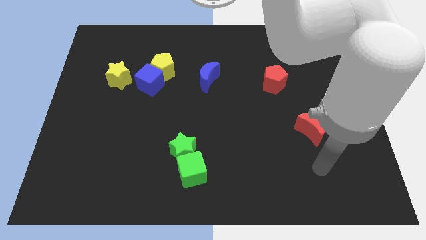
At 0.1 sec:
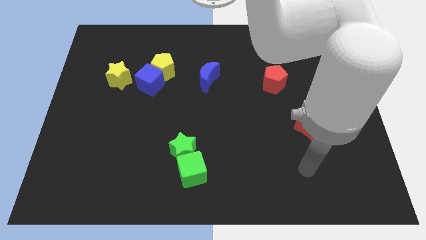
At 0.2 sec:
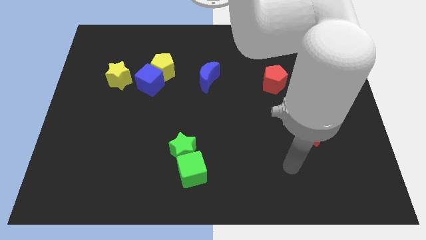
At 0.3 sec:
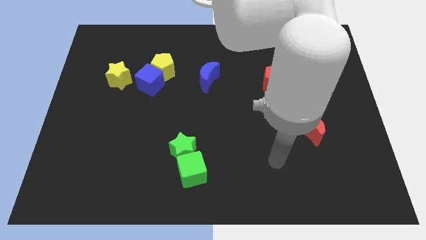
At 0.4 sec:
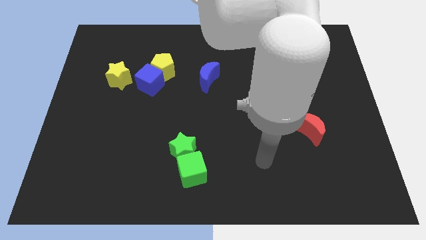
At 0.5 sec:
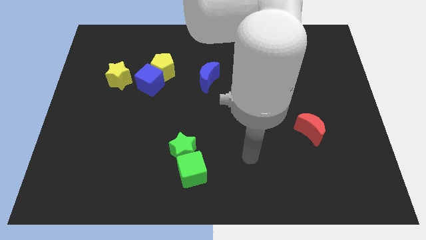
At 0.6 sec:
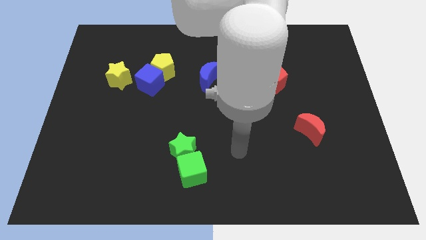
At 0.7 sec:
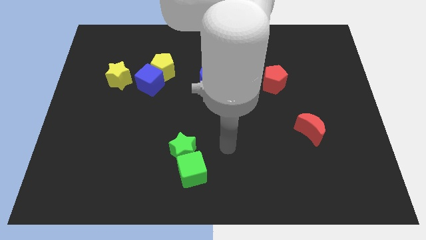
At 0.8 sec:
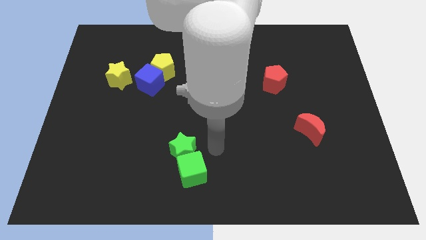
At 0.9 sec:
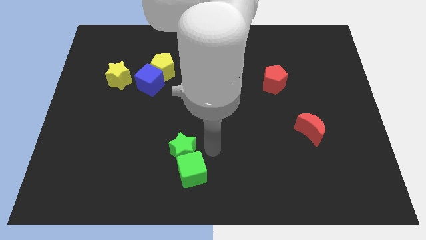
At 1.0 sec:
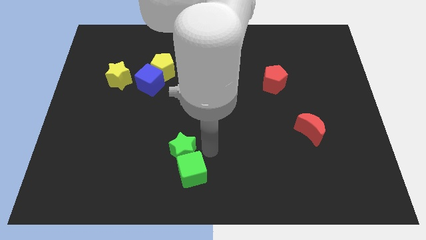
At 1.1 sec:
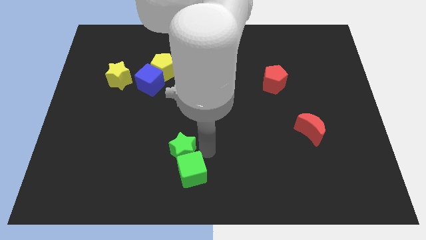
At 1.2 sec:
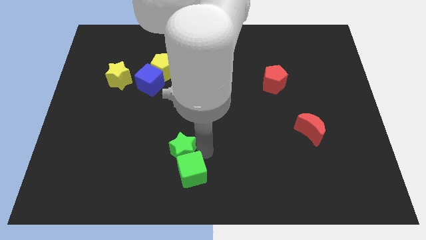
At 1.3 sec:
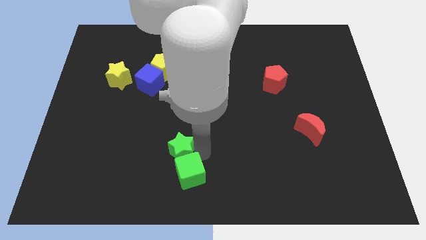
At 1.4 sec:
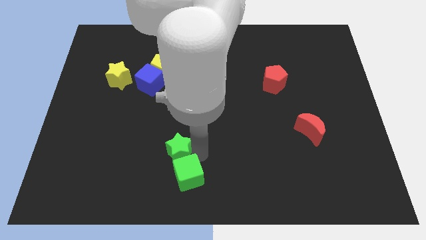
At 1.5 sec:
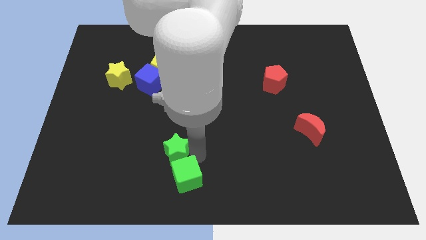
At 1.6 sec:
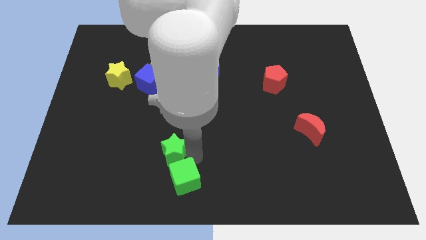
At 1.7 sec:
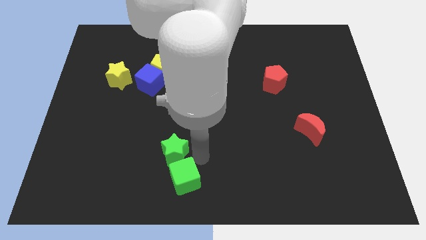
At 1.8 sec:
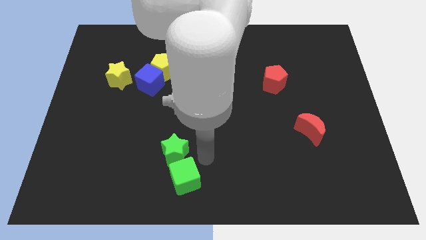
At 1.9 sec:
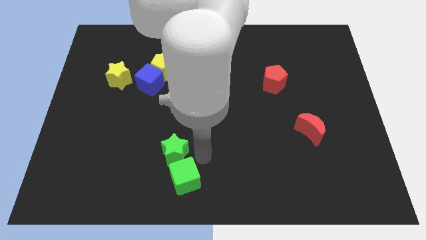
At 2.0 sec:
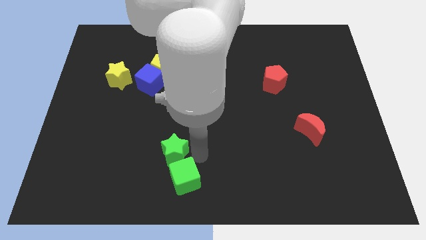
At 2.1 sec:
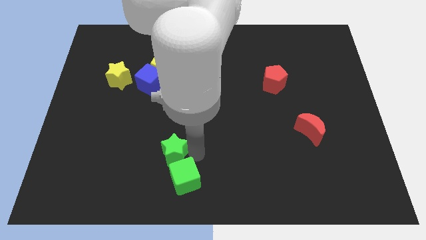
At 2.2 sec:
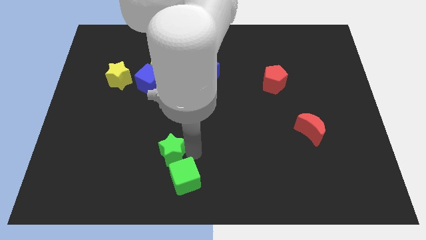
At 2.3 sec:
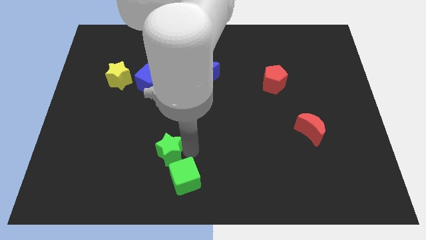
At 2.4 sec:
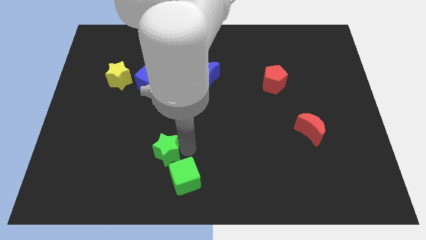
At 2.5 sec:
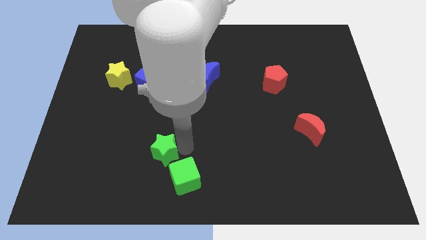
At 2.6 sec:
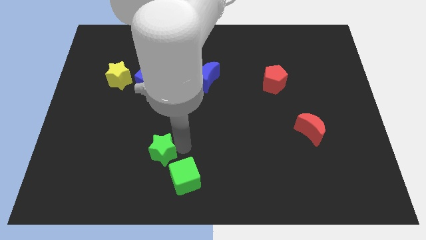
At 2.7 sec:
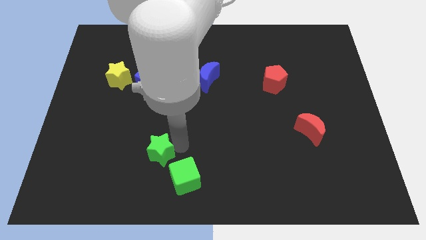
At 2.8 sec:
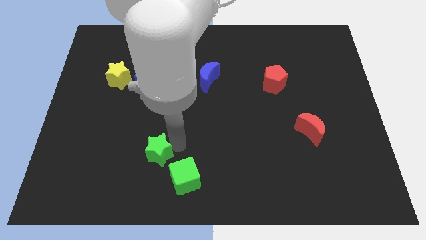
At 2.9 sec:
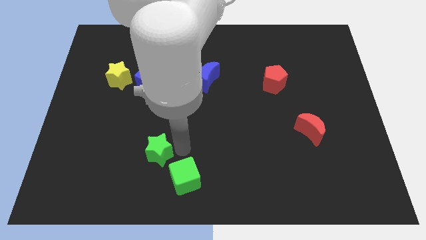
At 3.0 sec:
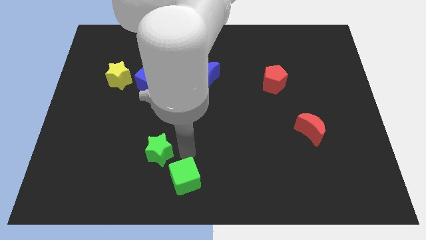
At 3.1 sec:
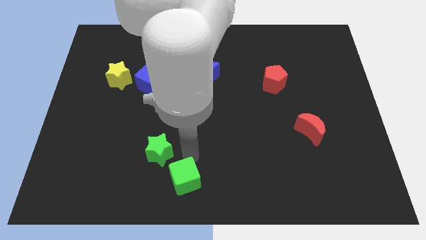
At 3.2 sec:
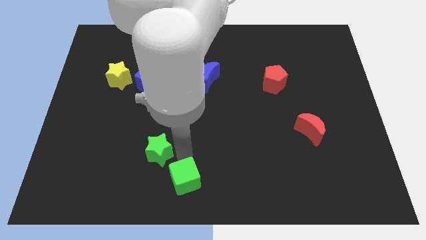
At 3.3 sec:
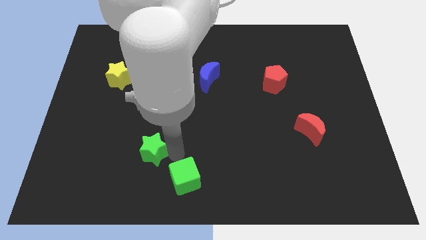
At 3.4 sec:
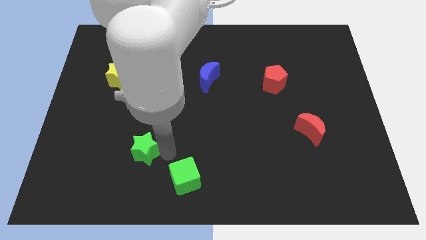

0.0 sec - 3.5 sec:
move the green star a bit to the left

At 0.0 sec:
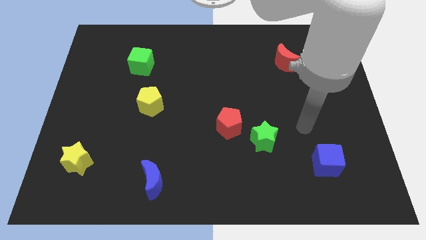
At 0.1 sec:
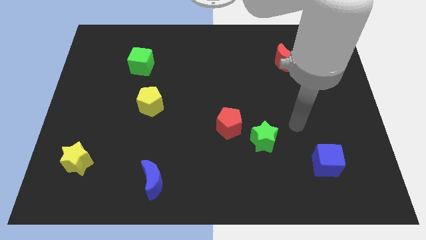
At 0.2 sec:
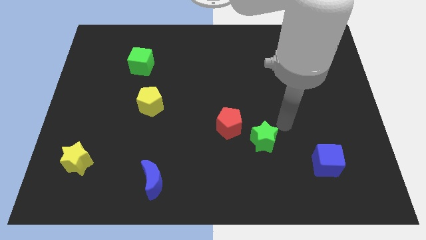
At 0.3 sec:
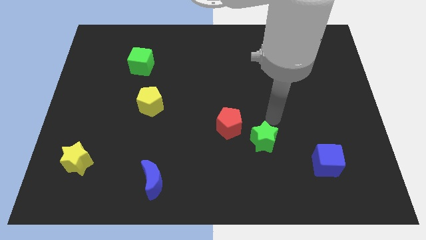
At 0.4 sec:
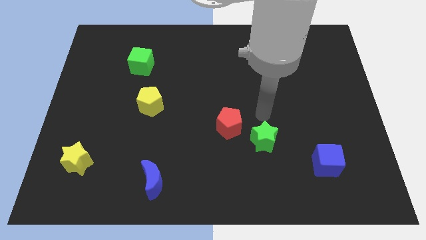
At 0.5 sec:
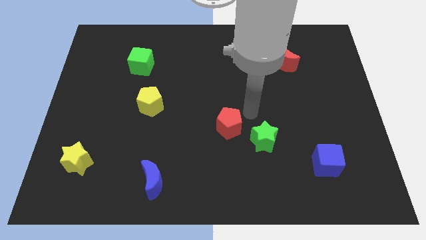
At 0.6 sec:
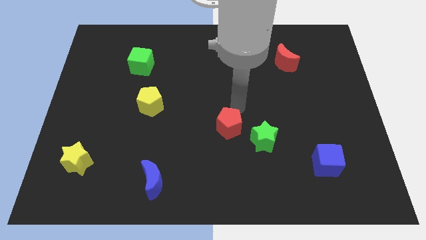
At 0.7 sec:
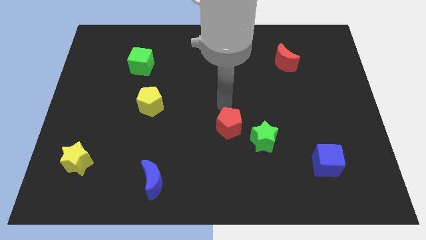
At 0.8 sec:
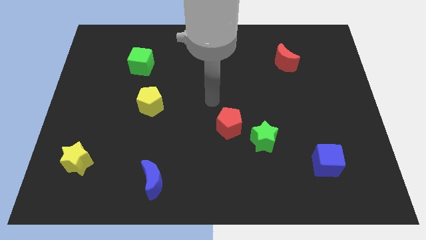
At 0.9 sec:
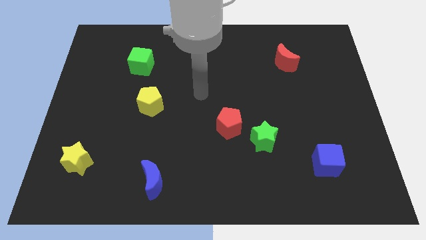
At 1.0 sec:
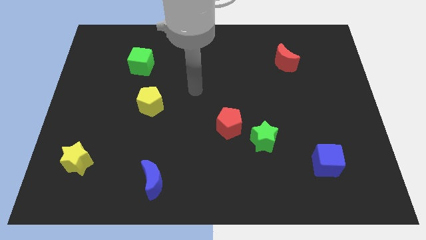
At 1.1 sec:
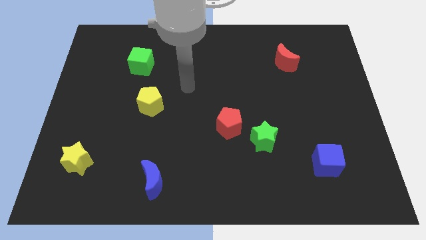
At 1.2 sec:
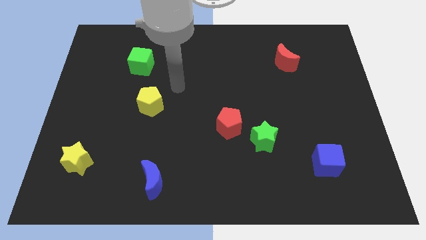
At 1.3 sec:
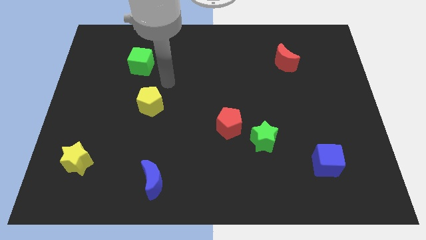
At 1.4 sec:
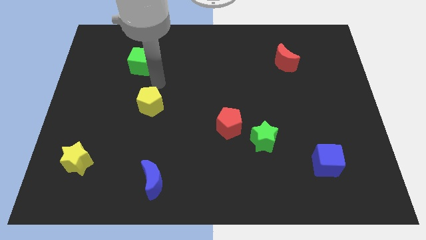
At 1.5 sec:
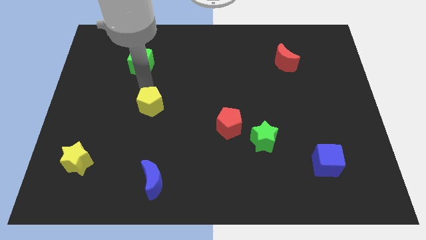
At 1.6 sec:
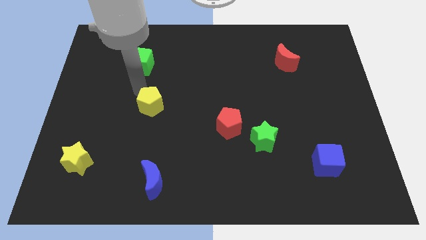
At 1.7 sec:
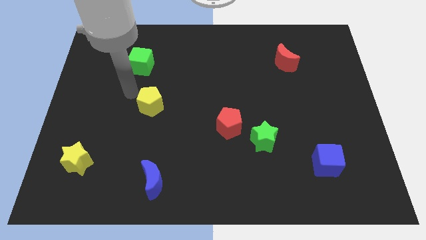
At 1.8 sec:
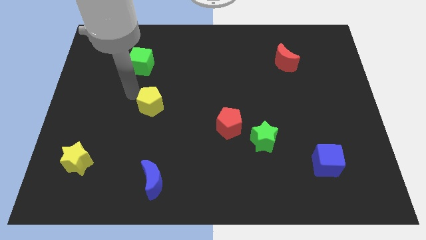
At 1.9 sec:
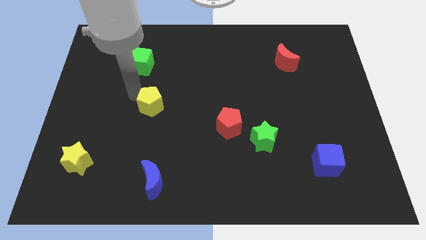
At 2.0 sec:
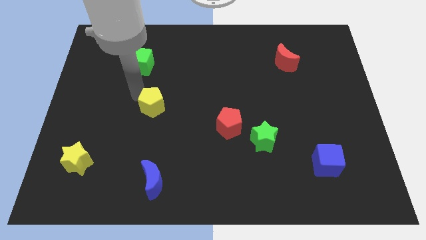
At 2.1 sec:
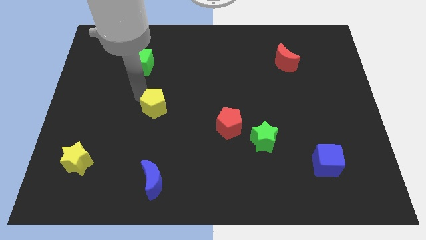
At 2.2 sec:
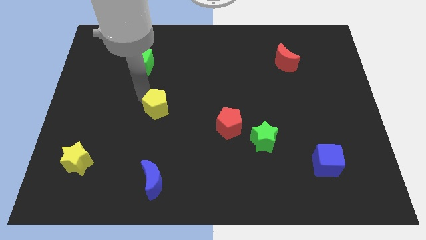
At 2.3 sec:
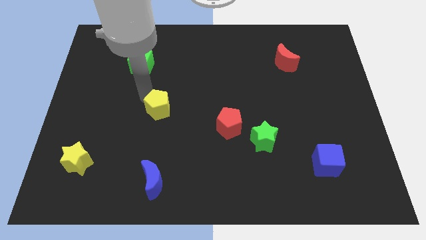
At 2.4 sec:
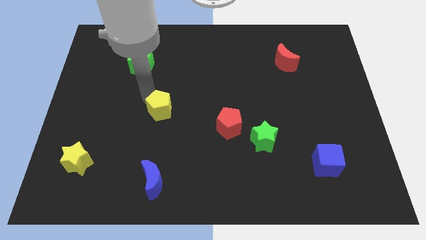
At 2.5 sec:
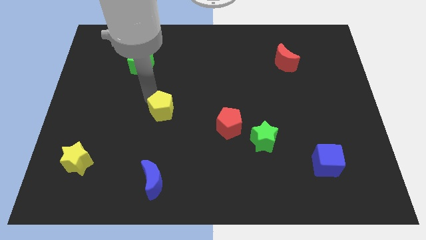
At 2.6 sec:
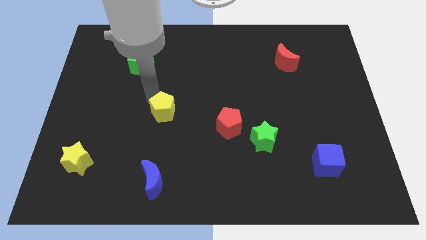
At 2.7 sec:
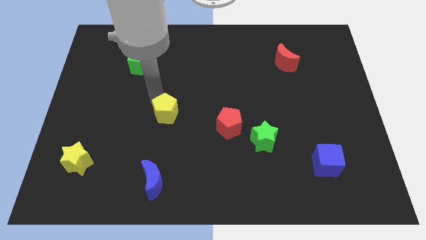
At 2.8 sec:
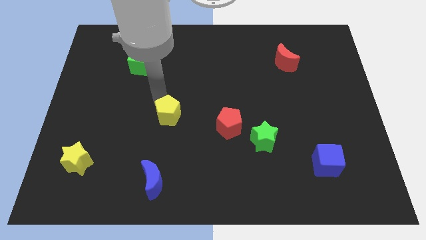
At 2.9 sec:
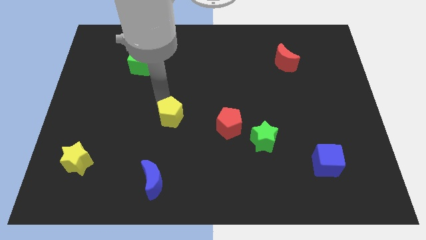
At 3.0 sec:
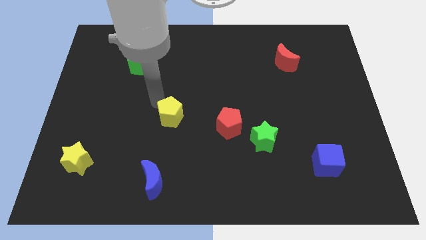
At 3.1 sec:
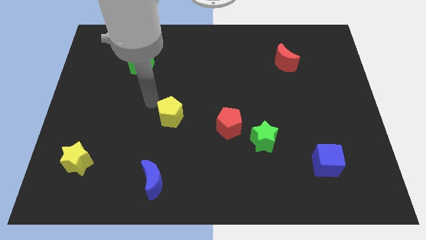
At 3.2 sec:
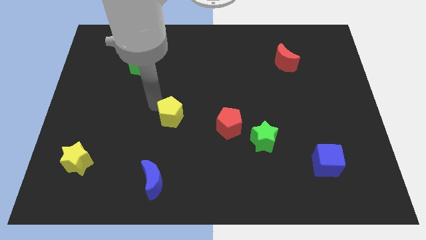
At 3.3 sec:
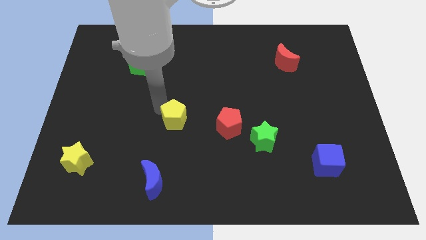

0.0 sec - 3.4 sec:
move the yellow pentagon downwards and then to the right a little

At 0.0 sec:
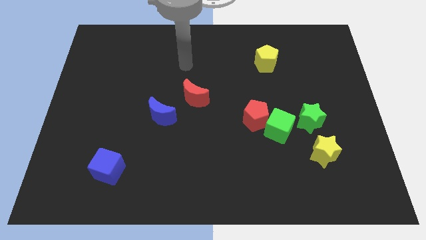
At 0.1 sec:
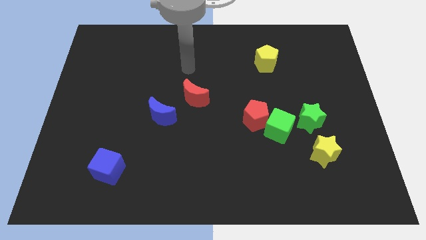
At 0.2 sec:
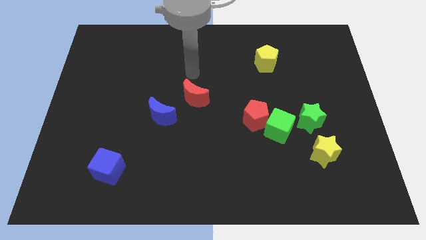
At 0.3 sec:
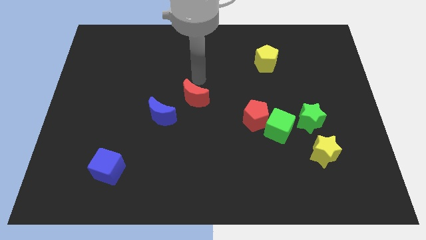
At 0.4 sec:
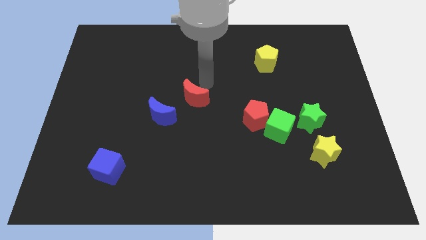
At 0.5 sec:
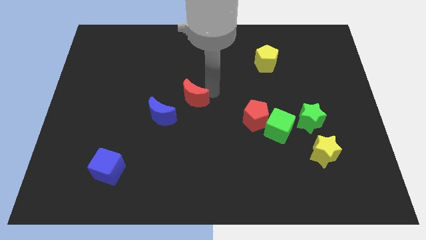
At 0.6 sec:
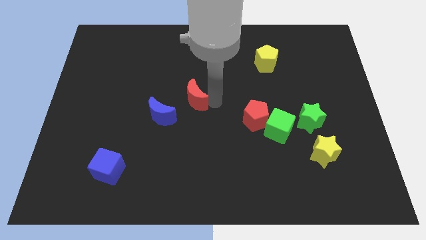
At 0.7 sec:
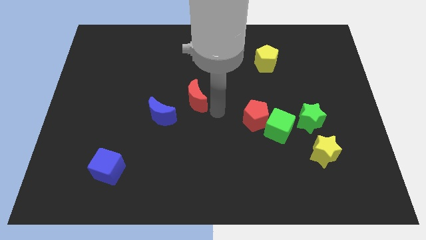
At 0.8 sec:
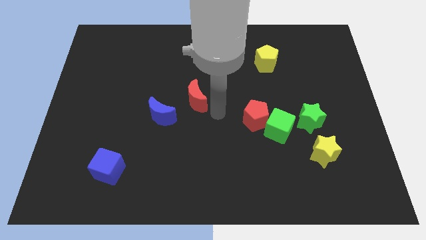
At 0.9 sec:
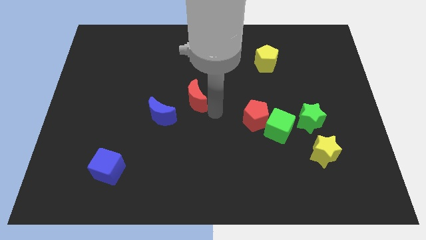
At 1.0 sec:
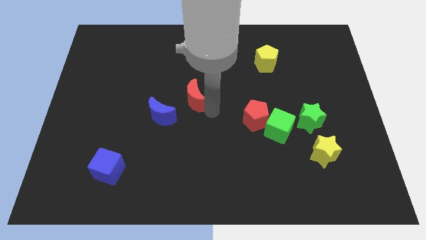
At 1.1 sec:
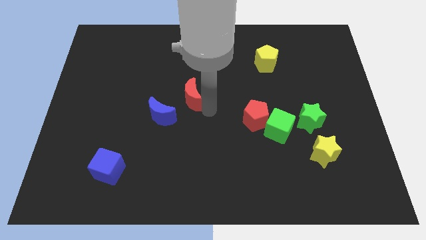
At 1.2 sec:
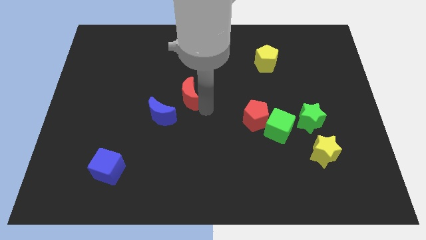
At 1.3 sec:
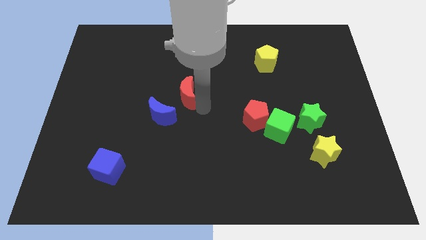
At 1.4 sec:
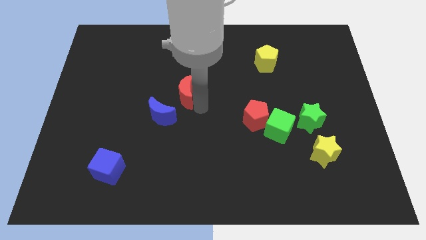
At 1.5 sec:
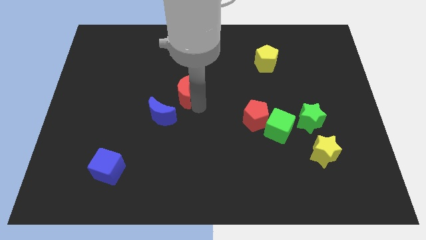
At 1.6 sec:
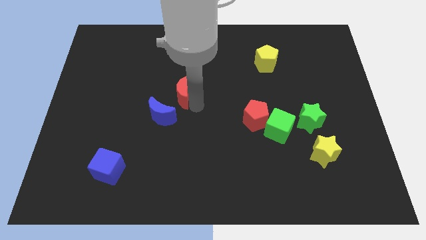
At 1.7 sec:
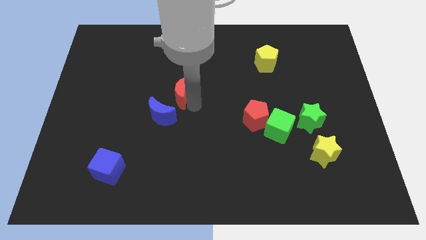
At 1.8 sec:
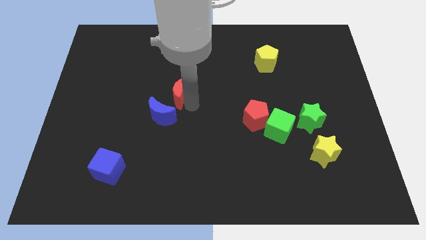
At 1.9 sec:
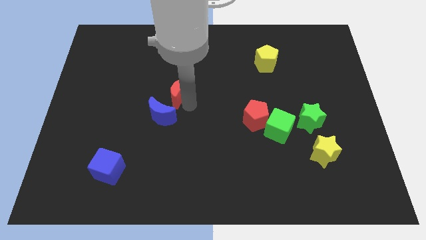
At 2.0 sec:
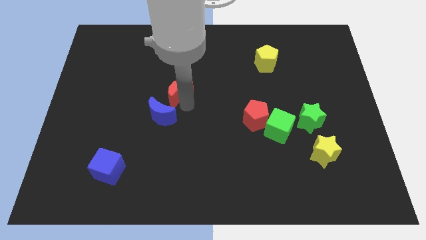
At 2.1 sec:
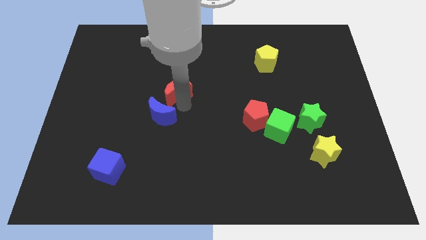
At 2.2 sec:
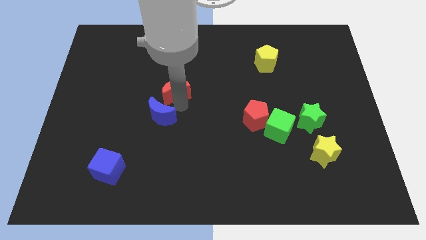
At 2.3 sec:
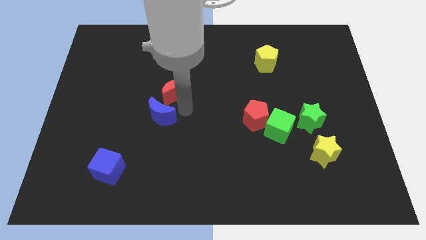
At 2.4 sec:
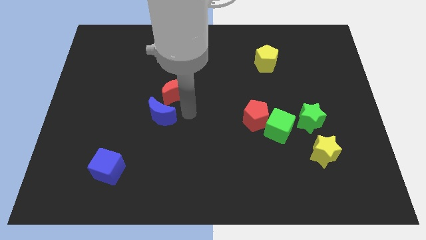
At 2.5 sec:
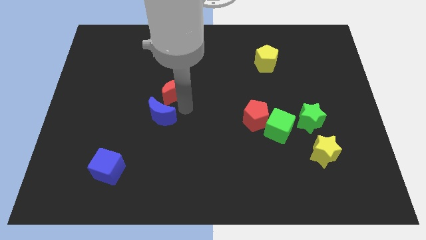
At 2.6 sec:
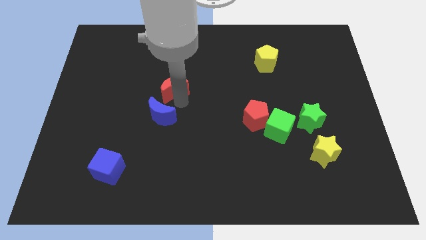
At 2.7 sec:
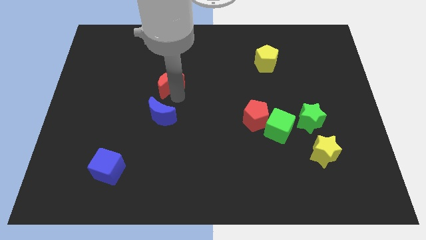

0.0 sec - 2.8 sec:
move the red moon up and then to the left slightly
